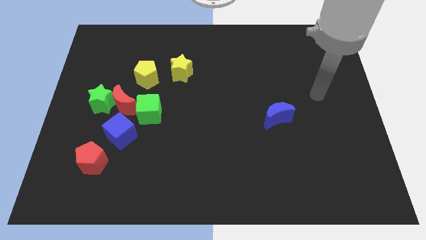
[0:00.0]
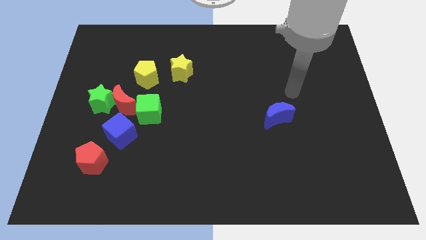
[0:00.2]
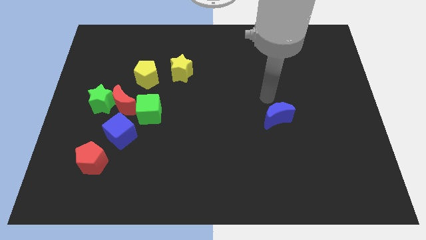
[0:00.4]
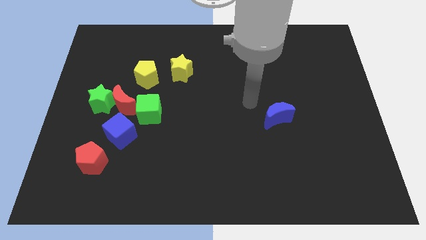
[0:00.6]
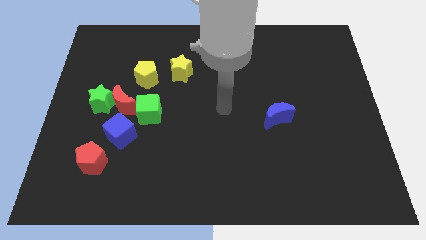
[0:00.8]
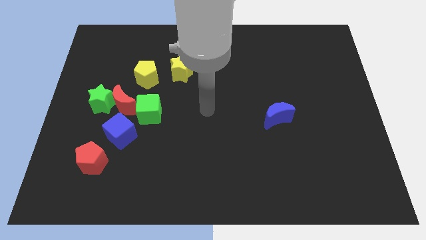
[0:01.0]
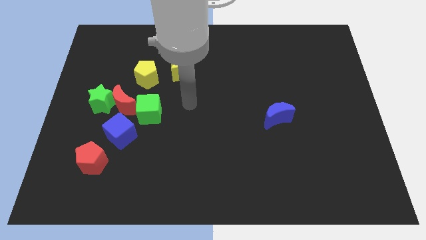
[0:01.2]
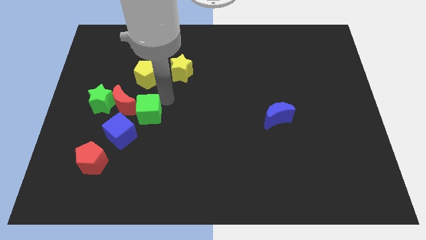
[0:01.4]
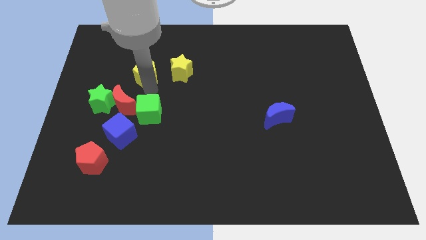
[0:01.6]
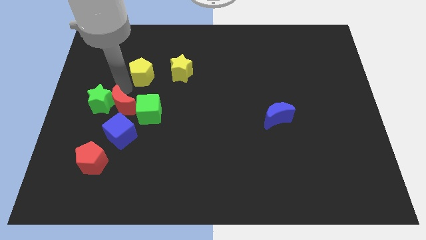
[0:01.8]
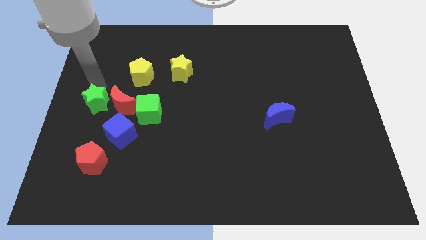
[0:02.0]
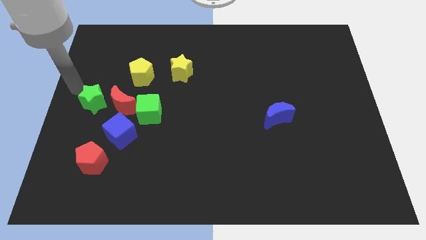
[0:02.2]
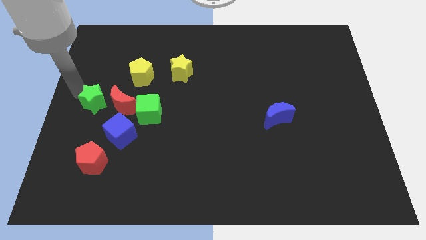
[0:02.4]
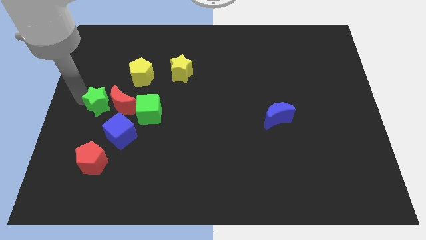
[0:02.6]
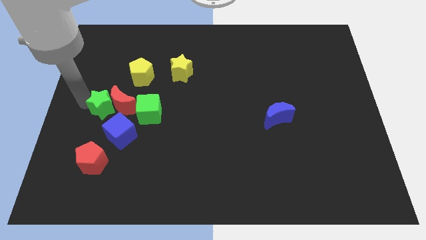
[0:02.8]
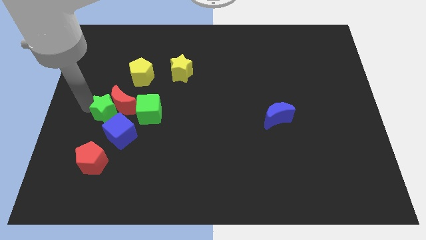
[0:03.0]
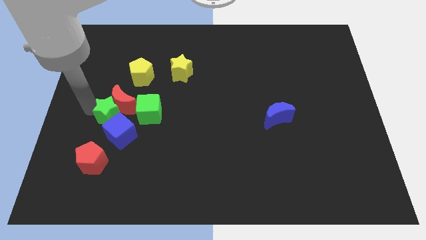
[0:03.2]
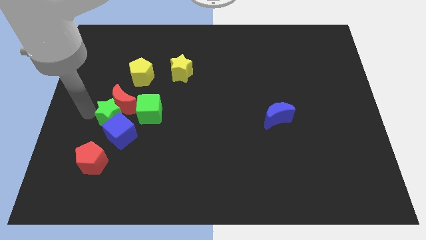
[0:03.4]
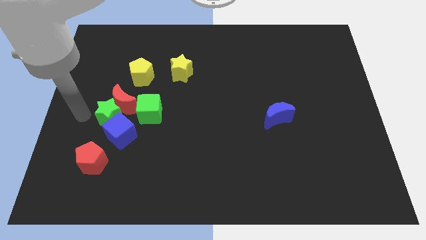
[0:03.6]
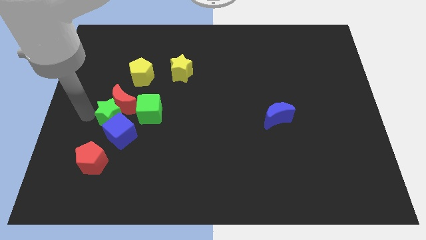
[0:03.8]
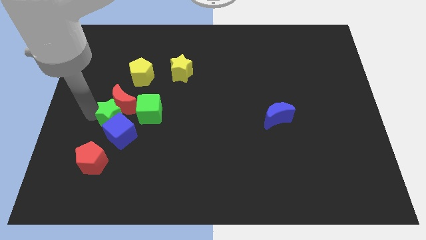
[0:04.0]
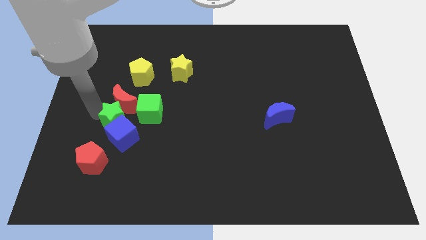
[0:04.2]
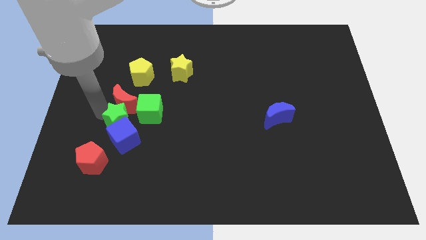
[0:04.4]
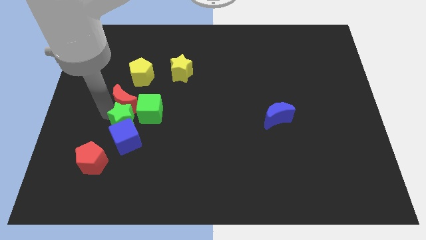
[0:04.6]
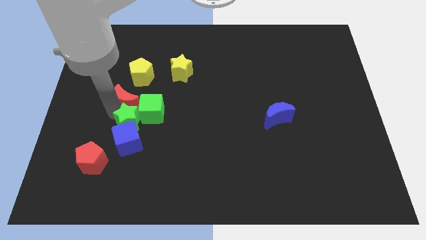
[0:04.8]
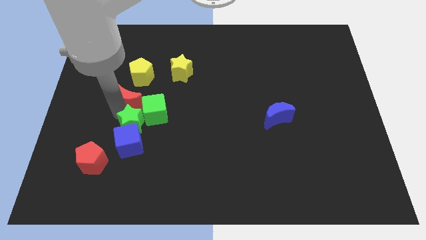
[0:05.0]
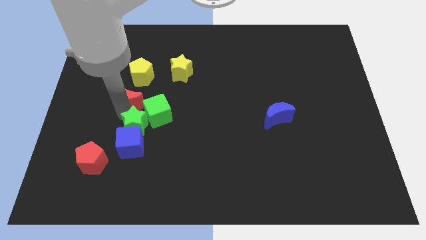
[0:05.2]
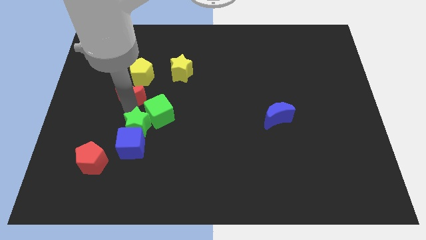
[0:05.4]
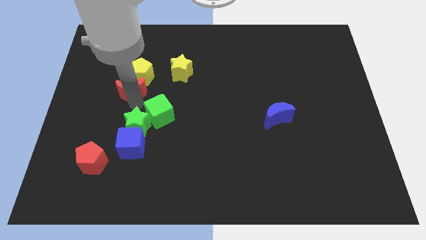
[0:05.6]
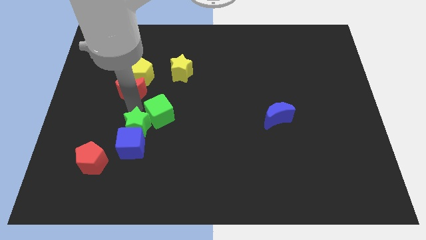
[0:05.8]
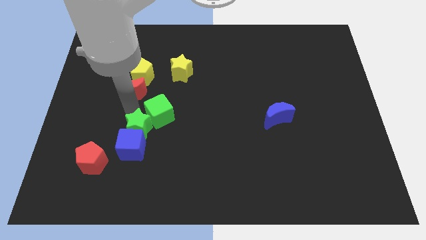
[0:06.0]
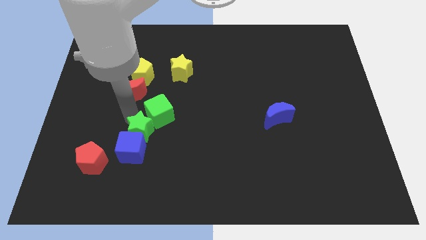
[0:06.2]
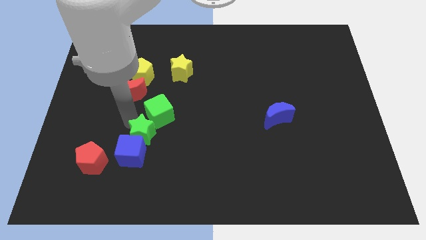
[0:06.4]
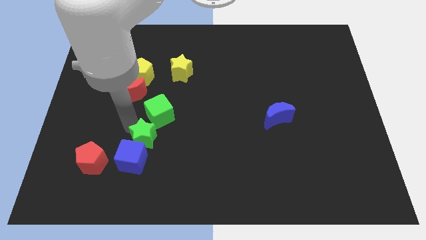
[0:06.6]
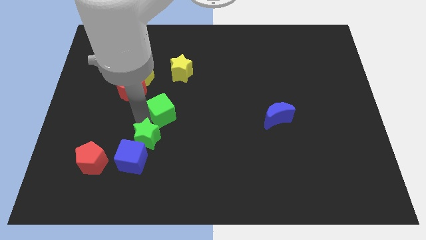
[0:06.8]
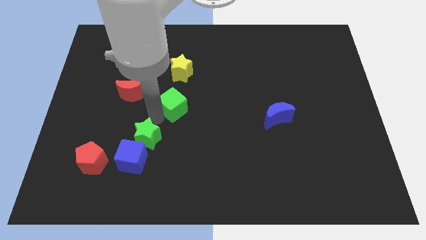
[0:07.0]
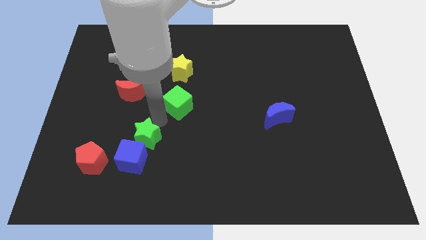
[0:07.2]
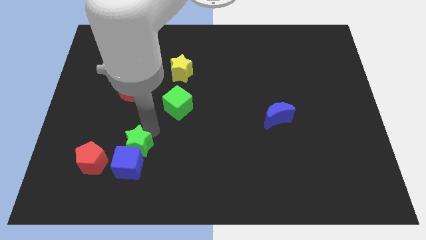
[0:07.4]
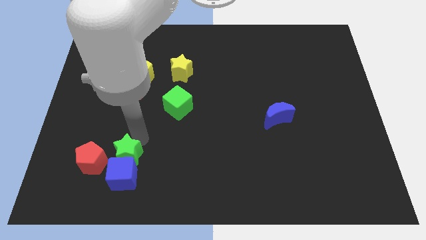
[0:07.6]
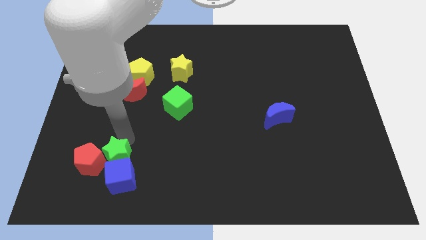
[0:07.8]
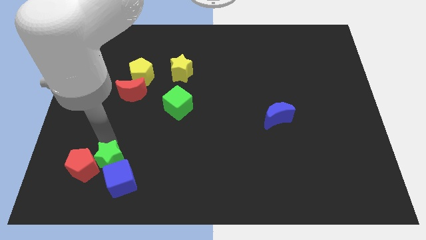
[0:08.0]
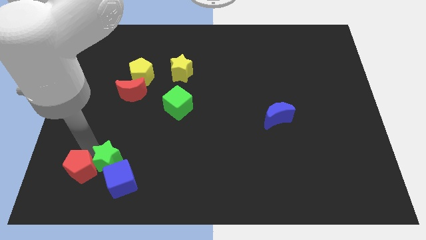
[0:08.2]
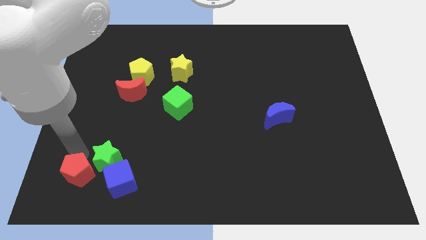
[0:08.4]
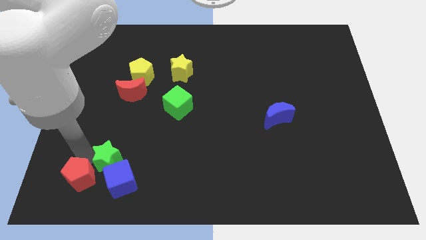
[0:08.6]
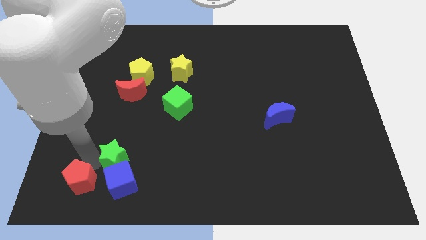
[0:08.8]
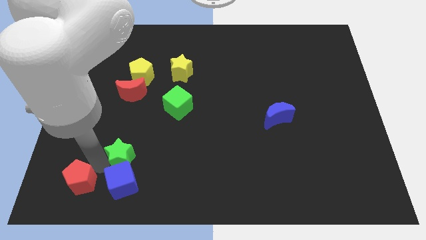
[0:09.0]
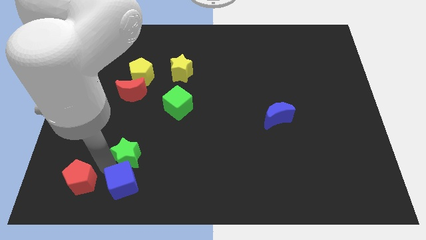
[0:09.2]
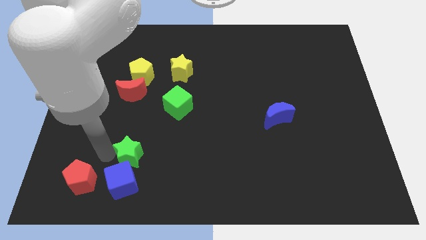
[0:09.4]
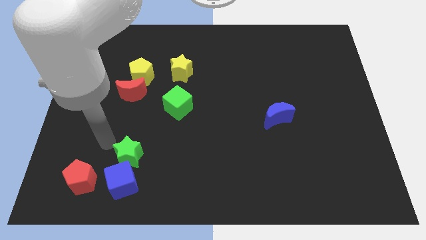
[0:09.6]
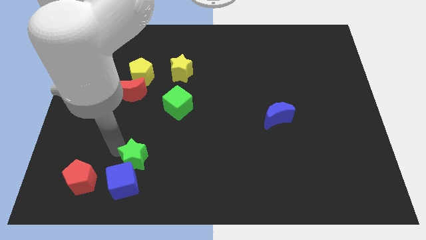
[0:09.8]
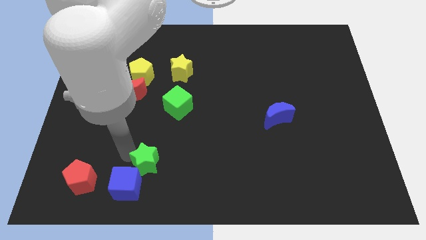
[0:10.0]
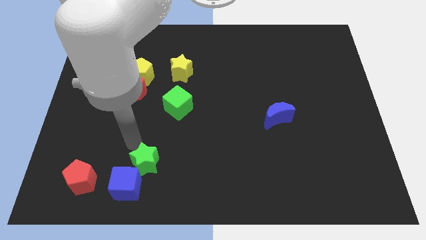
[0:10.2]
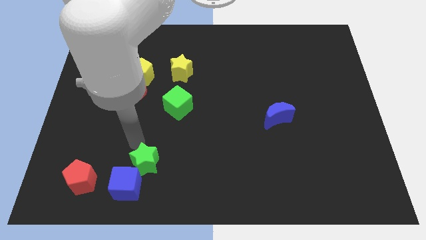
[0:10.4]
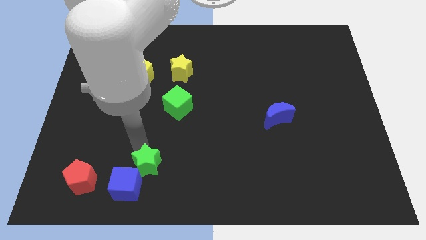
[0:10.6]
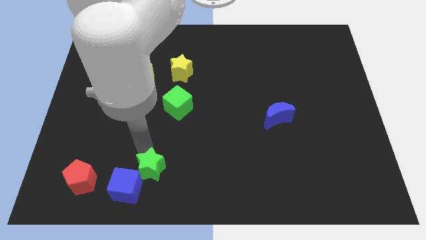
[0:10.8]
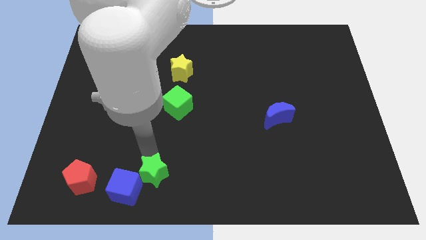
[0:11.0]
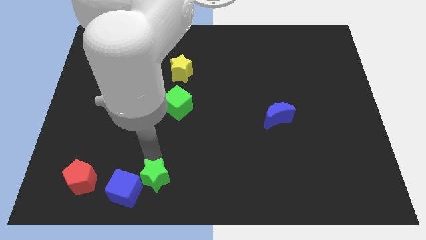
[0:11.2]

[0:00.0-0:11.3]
push the green star to the bottom side
